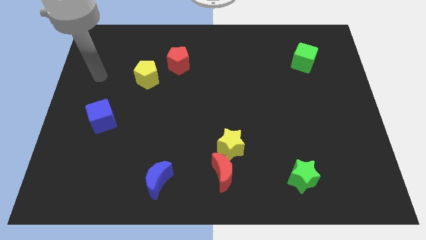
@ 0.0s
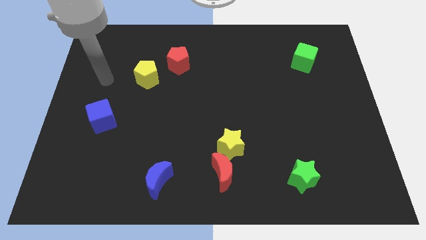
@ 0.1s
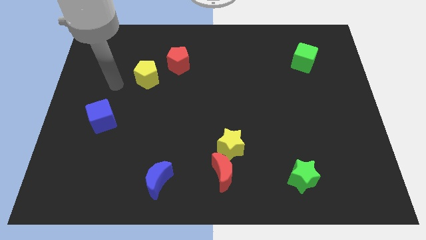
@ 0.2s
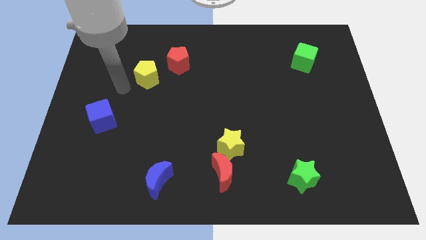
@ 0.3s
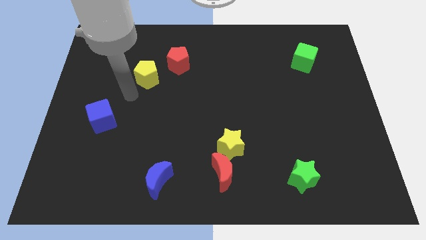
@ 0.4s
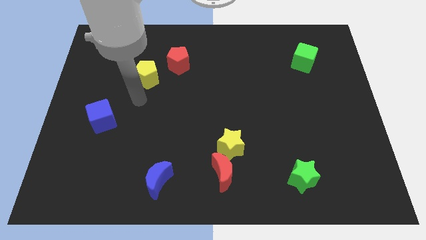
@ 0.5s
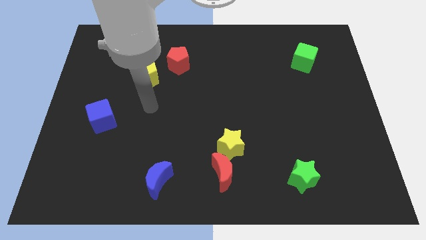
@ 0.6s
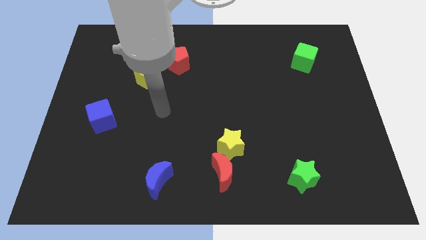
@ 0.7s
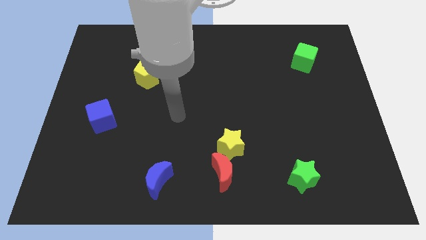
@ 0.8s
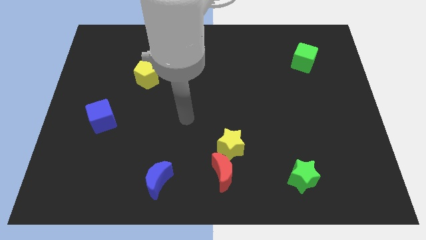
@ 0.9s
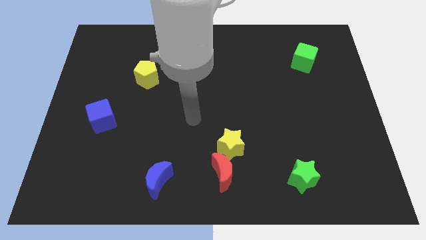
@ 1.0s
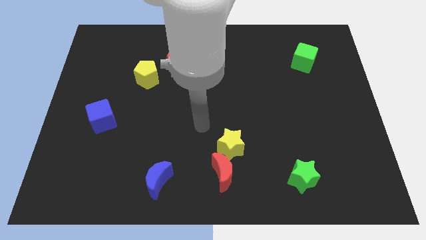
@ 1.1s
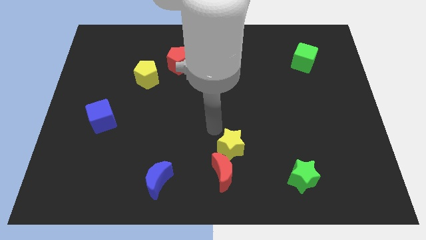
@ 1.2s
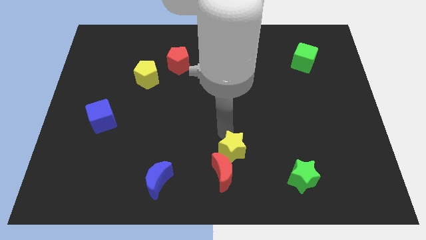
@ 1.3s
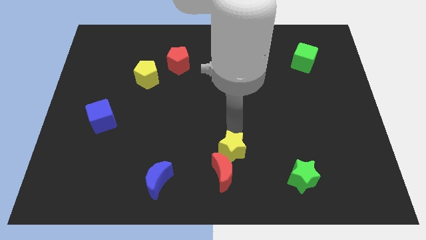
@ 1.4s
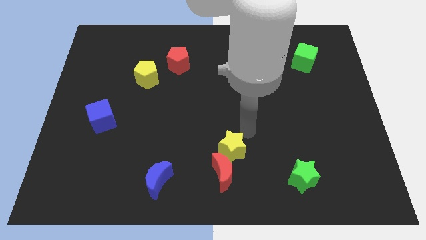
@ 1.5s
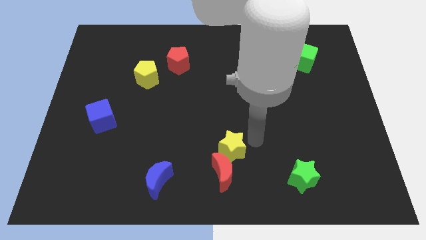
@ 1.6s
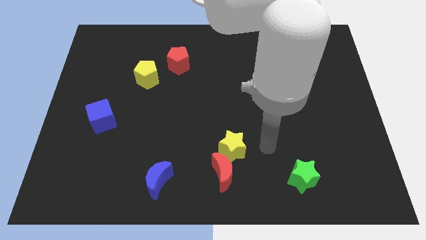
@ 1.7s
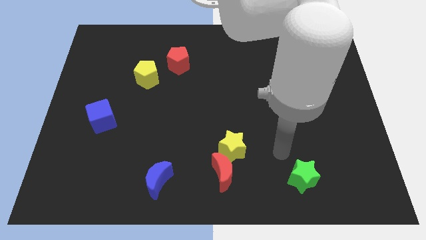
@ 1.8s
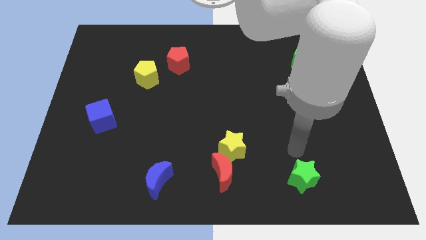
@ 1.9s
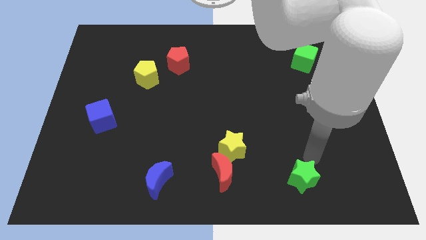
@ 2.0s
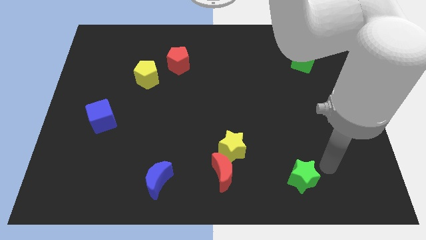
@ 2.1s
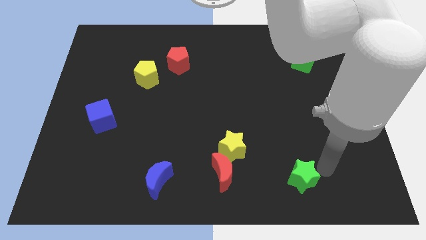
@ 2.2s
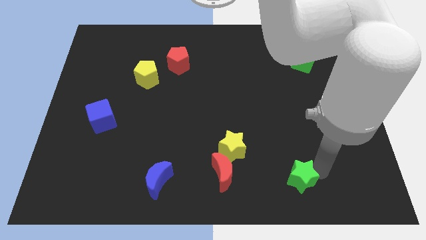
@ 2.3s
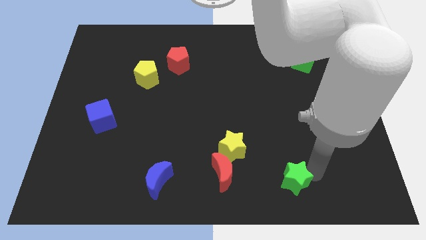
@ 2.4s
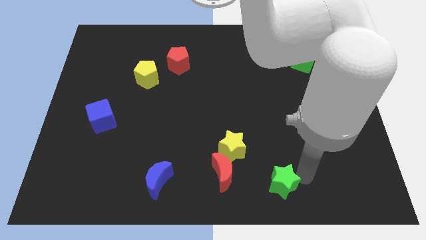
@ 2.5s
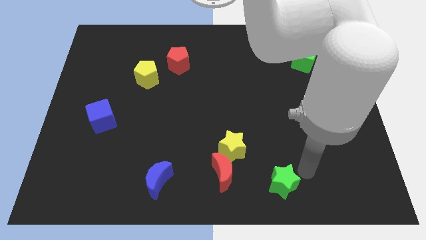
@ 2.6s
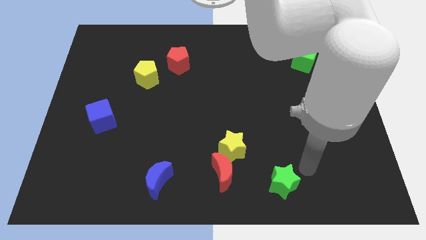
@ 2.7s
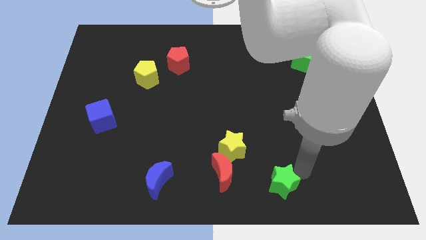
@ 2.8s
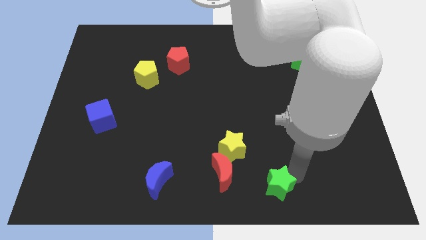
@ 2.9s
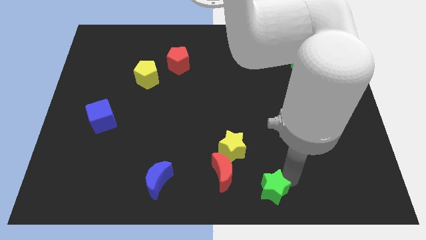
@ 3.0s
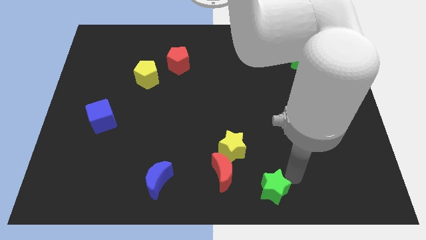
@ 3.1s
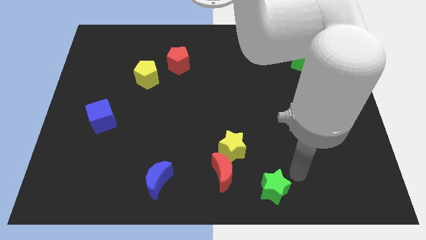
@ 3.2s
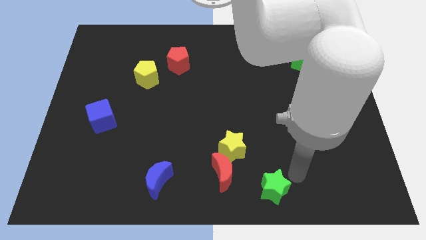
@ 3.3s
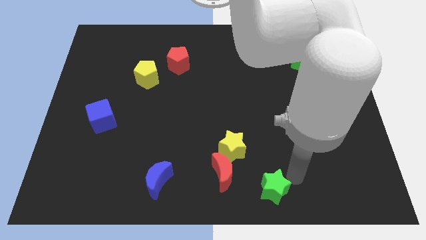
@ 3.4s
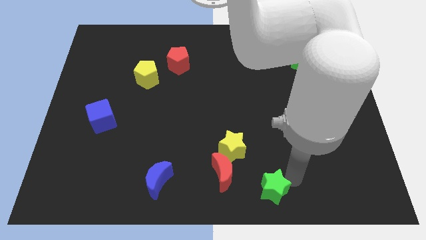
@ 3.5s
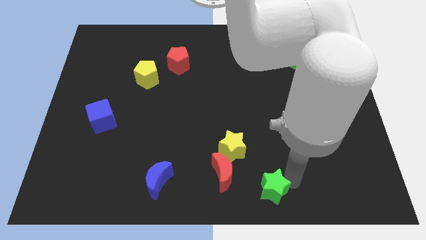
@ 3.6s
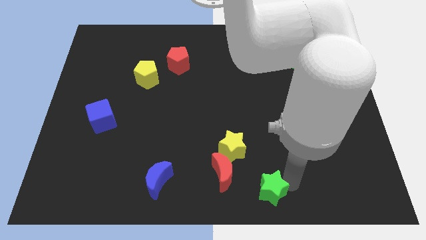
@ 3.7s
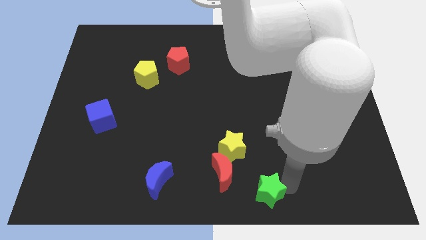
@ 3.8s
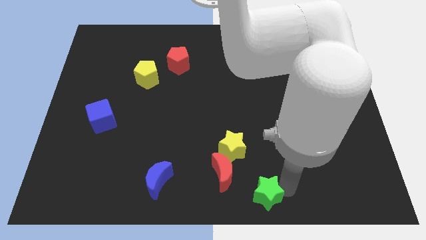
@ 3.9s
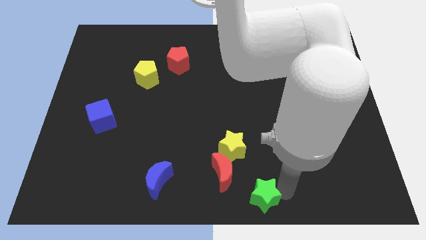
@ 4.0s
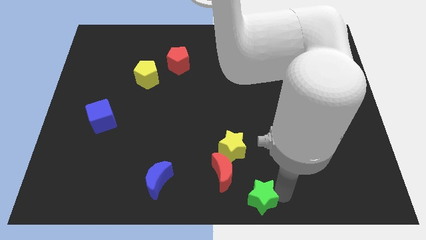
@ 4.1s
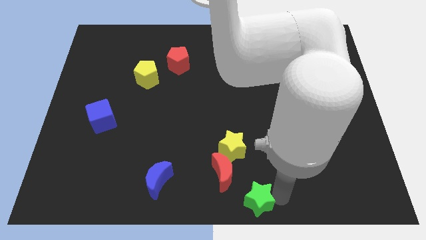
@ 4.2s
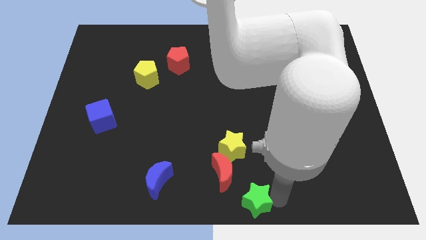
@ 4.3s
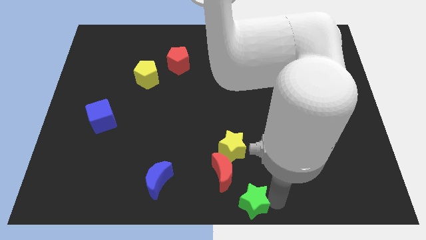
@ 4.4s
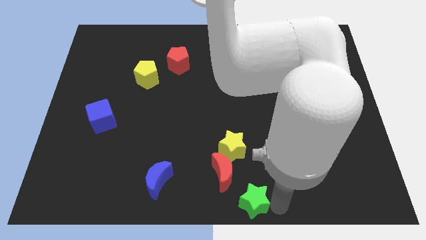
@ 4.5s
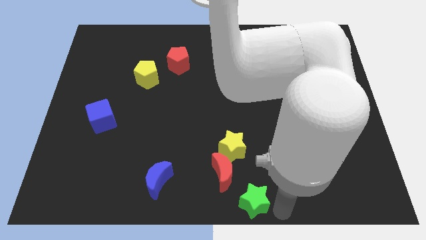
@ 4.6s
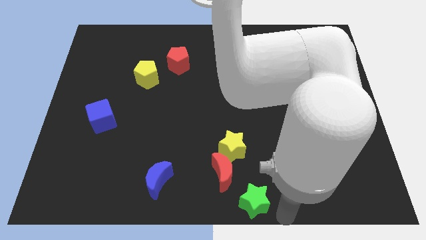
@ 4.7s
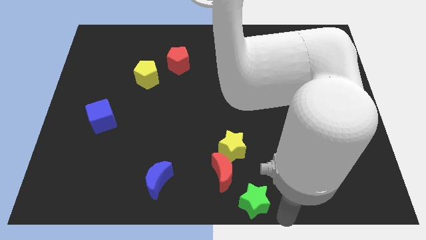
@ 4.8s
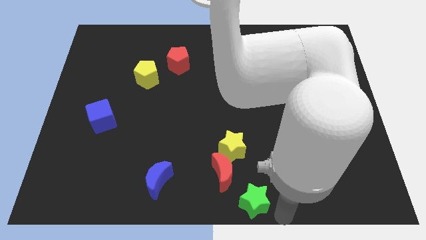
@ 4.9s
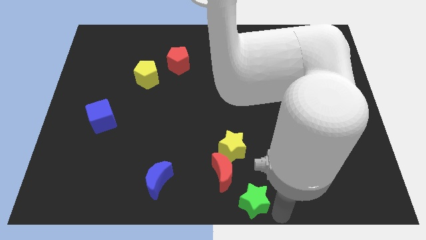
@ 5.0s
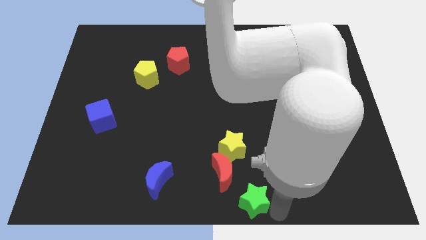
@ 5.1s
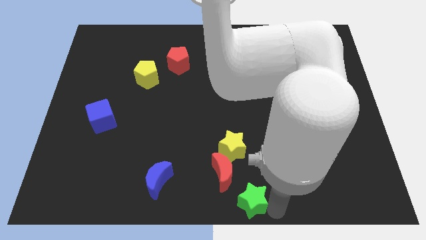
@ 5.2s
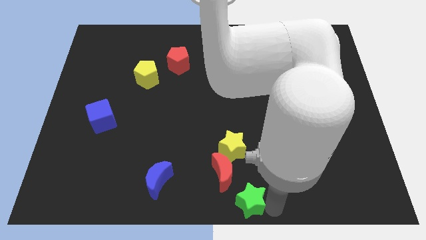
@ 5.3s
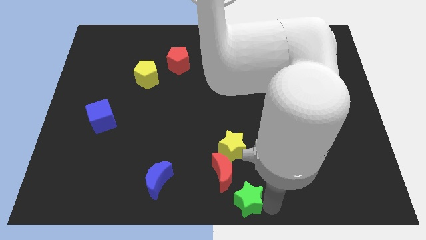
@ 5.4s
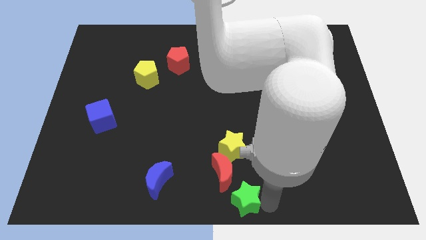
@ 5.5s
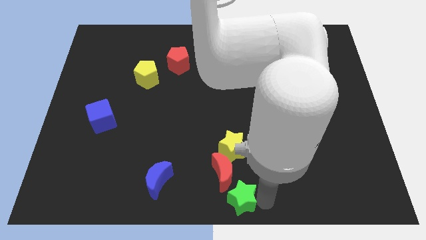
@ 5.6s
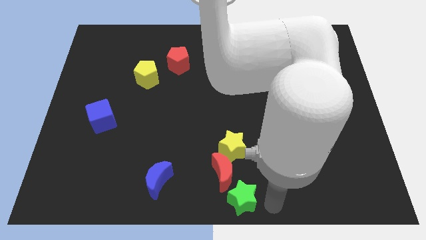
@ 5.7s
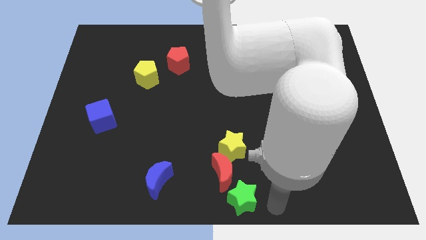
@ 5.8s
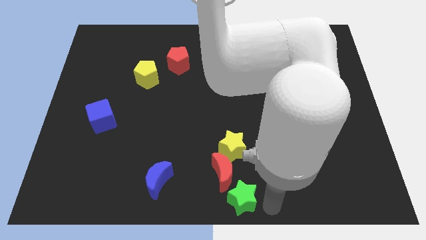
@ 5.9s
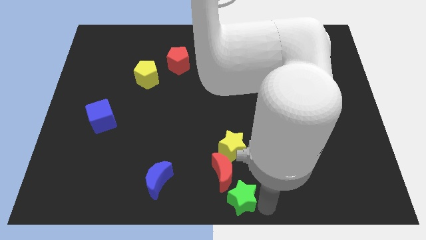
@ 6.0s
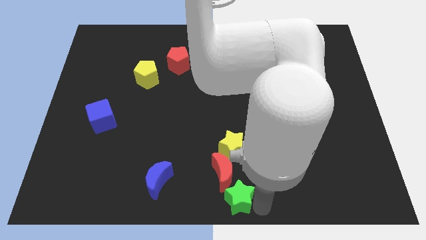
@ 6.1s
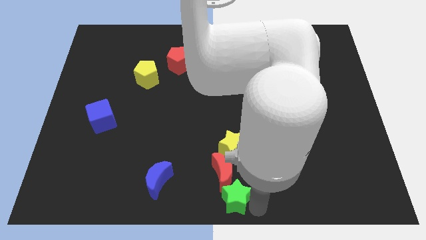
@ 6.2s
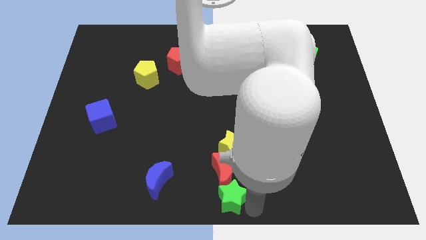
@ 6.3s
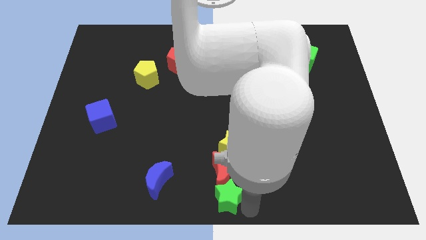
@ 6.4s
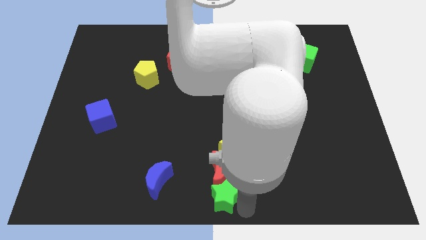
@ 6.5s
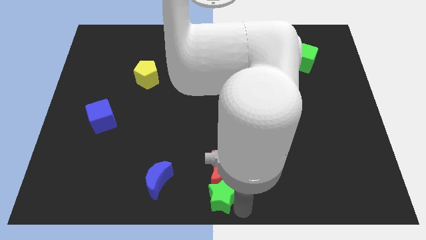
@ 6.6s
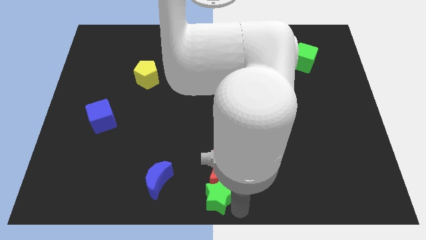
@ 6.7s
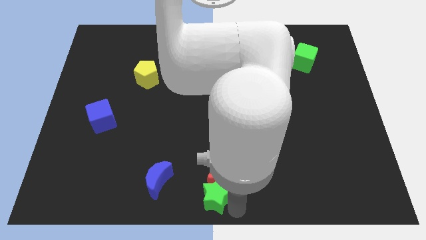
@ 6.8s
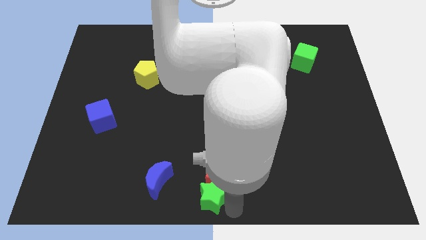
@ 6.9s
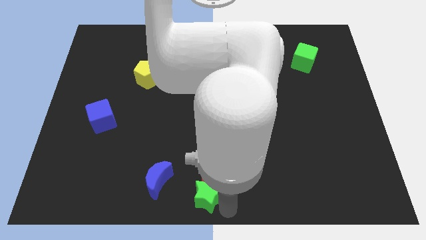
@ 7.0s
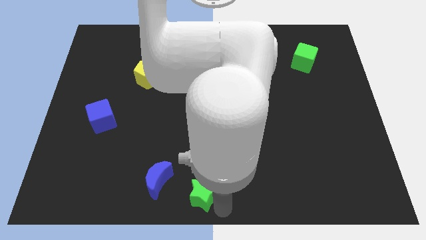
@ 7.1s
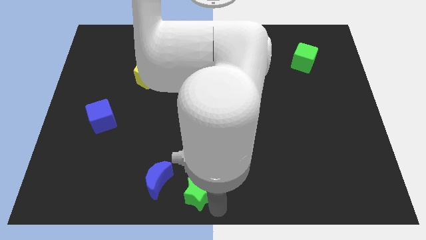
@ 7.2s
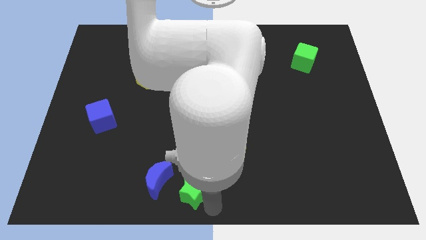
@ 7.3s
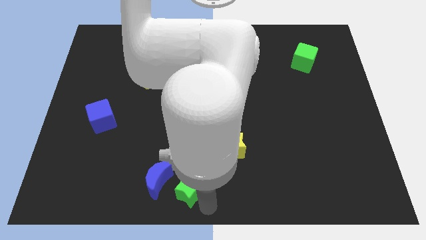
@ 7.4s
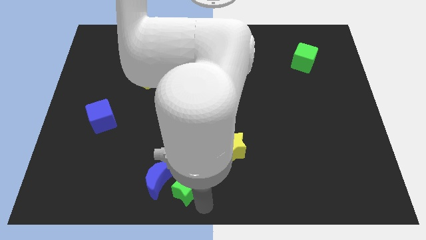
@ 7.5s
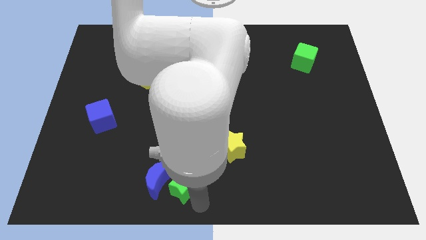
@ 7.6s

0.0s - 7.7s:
push the green star to the top right of the blue moon
